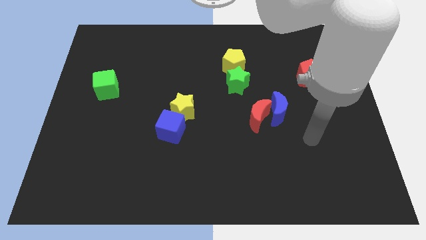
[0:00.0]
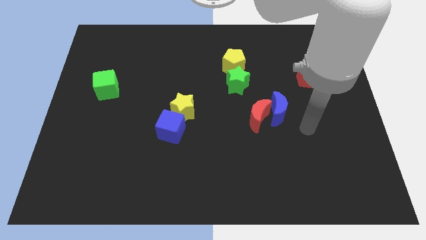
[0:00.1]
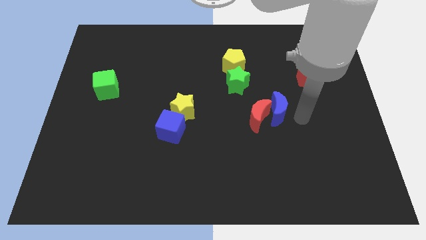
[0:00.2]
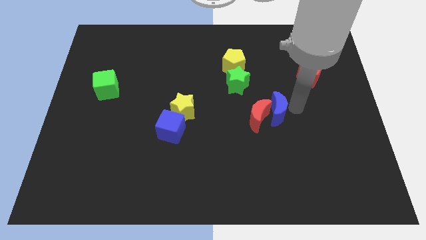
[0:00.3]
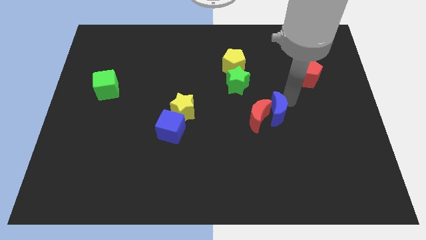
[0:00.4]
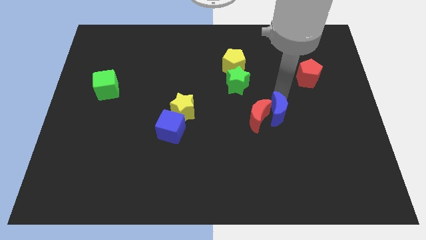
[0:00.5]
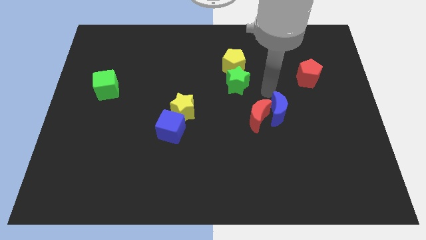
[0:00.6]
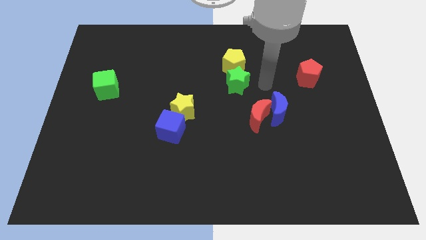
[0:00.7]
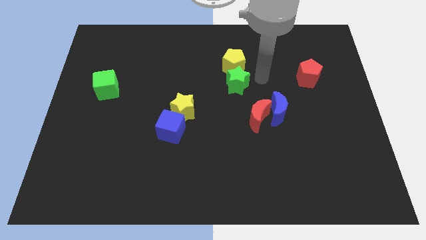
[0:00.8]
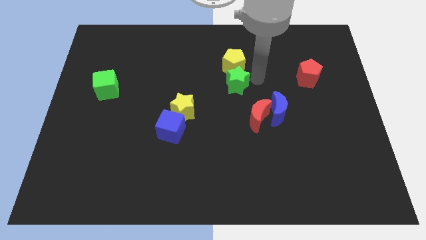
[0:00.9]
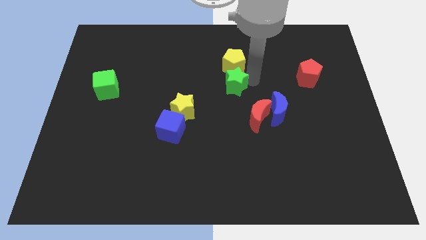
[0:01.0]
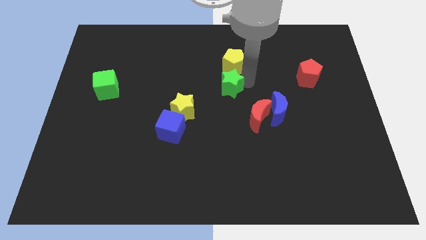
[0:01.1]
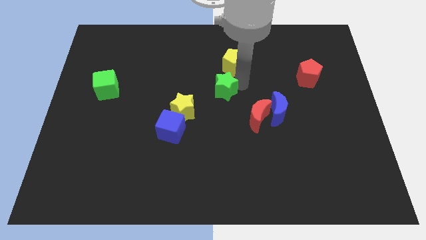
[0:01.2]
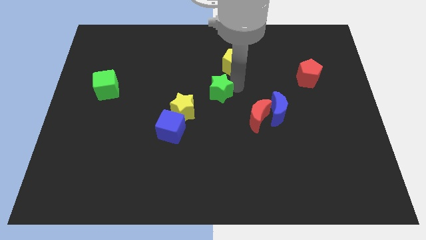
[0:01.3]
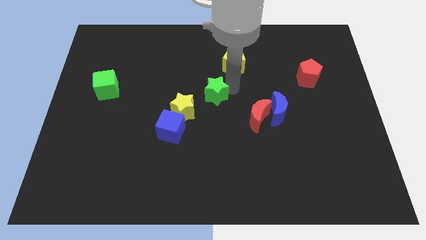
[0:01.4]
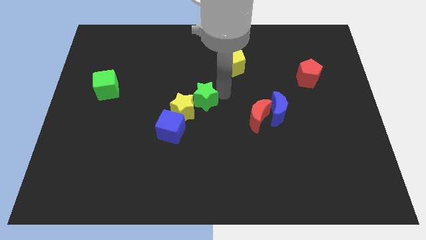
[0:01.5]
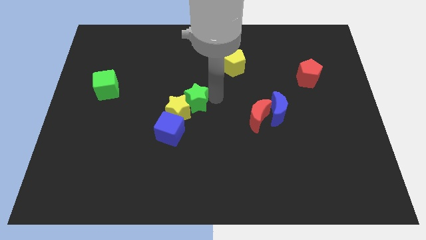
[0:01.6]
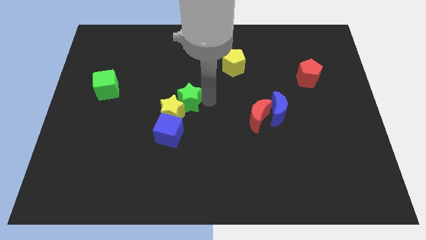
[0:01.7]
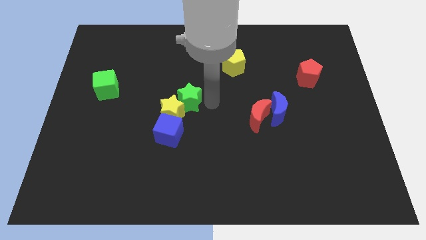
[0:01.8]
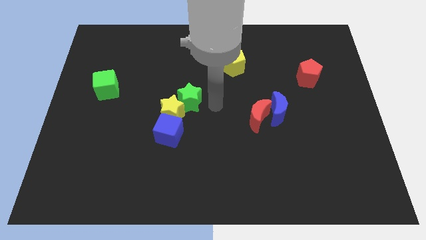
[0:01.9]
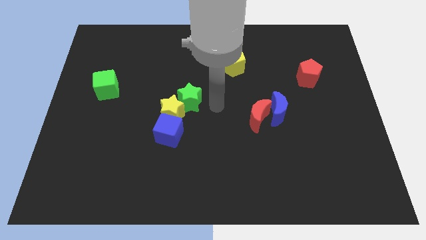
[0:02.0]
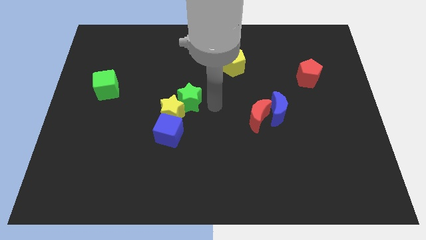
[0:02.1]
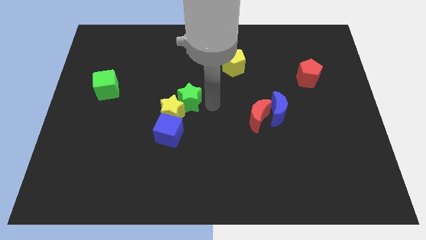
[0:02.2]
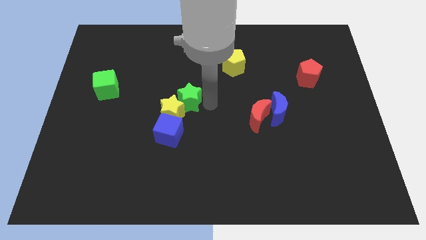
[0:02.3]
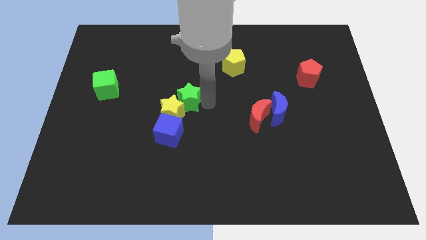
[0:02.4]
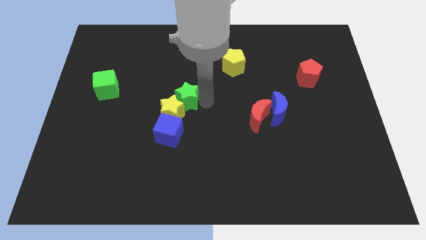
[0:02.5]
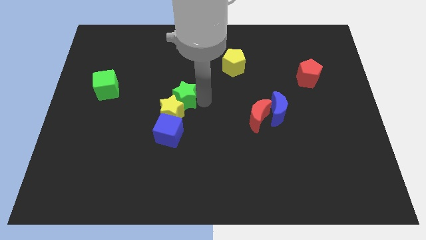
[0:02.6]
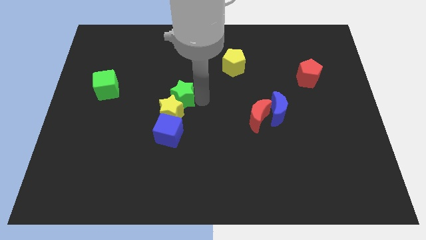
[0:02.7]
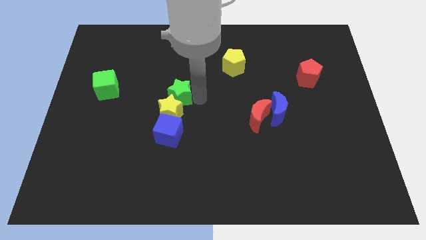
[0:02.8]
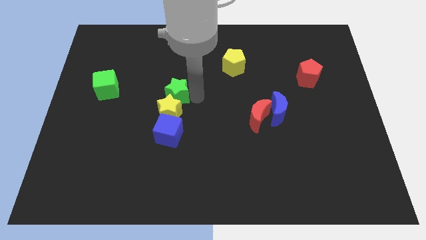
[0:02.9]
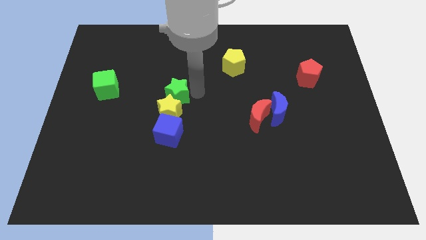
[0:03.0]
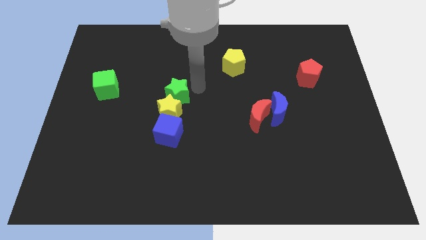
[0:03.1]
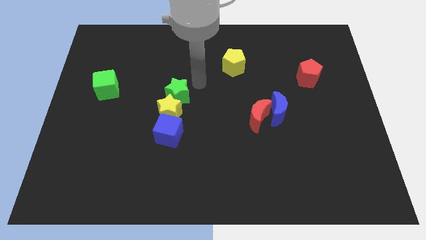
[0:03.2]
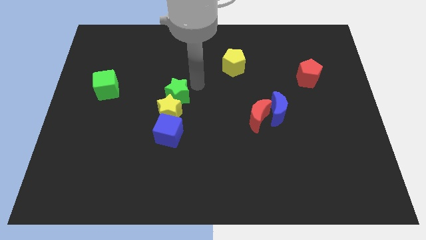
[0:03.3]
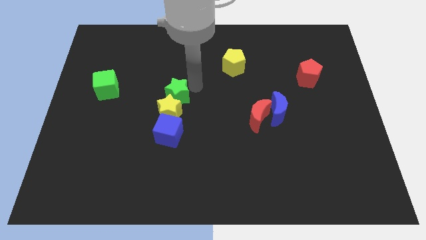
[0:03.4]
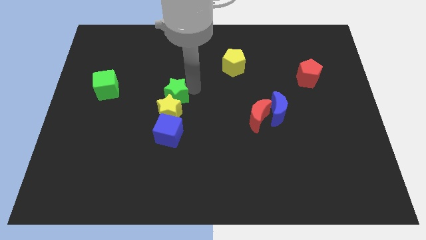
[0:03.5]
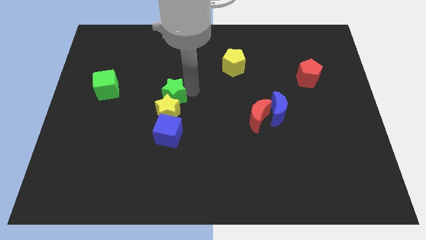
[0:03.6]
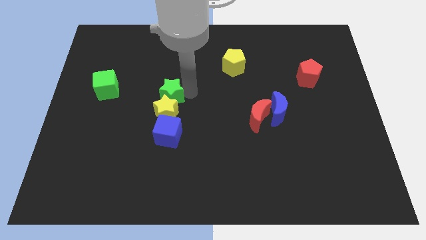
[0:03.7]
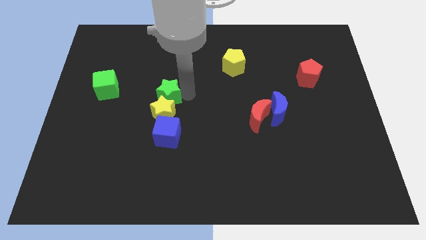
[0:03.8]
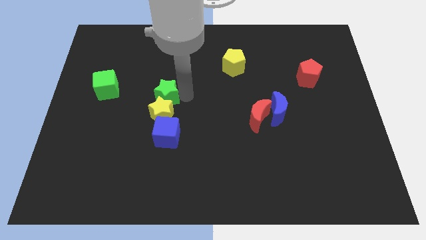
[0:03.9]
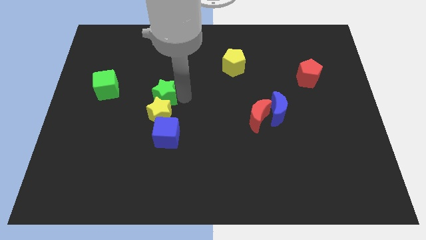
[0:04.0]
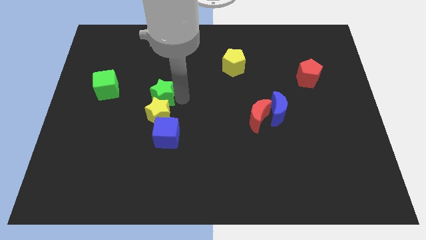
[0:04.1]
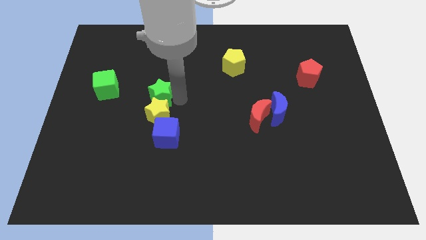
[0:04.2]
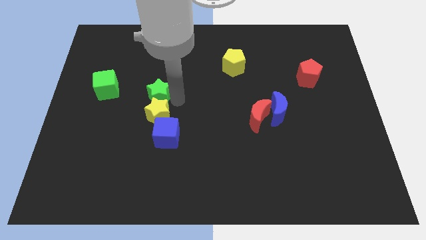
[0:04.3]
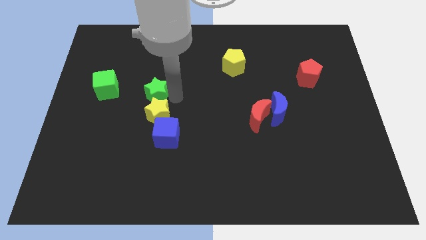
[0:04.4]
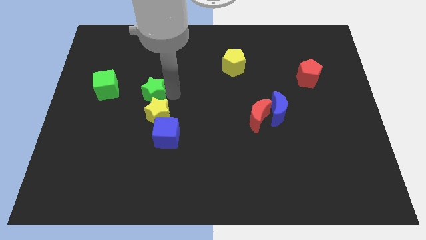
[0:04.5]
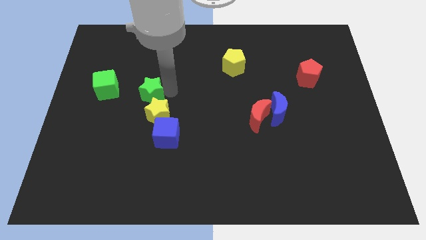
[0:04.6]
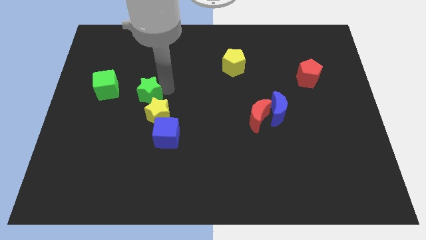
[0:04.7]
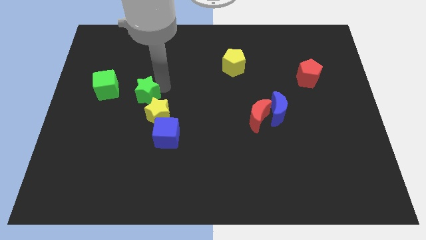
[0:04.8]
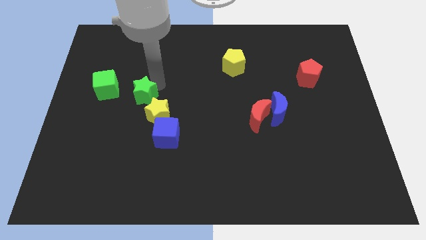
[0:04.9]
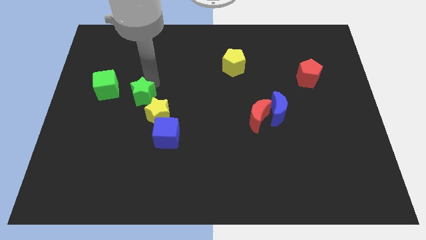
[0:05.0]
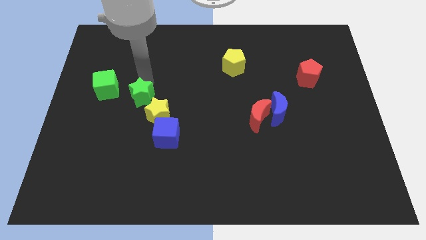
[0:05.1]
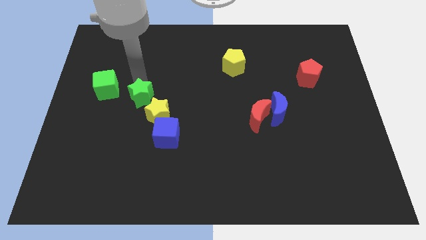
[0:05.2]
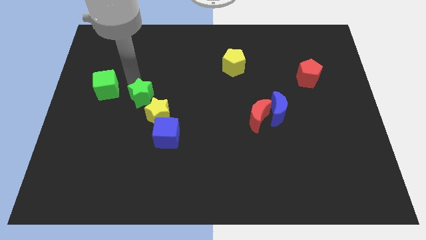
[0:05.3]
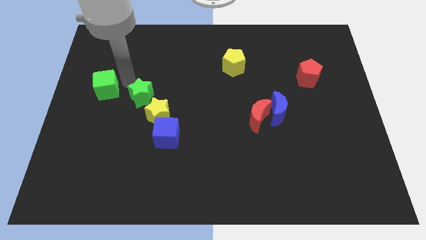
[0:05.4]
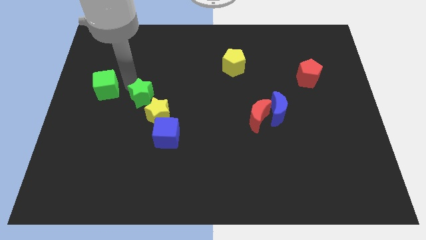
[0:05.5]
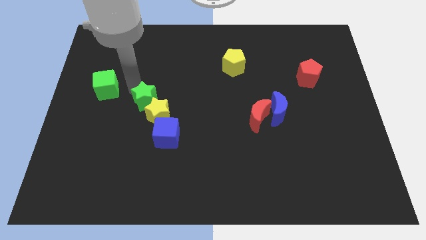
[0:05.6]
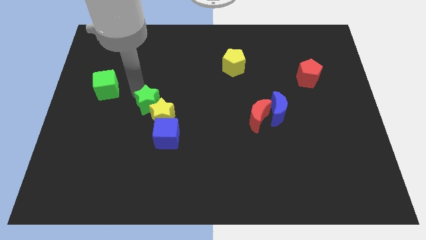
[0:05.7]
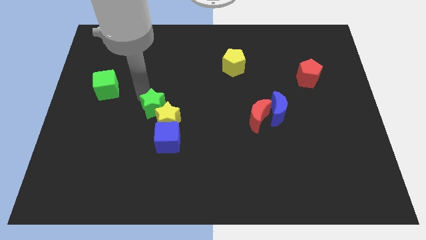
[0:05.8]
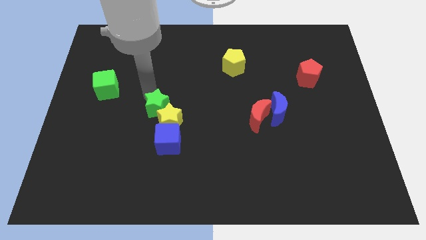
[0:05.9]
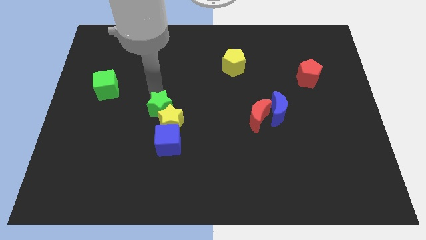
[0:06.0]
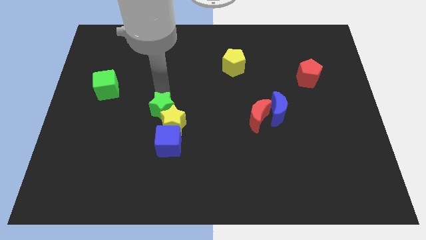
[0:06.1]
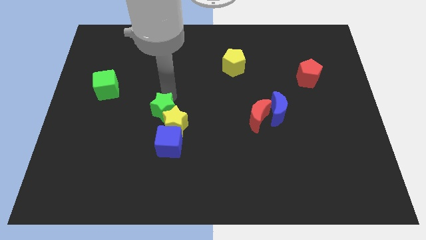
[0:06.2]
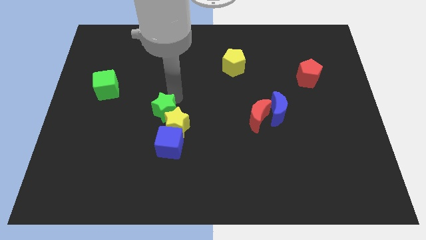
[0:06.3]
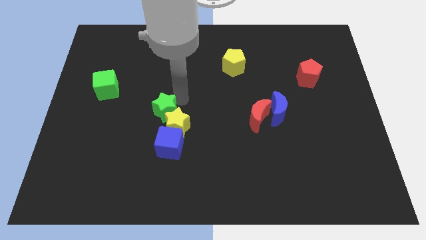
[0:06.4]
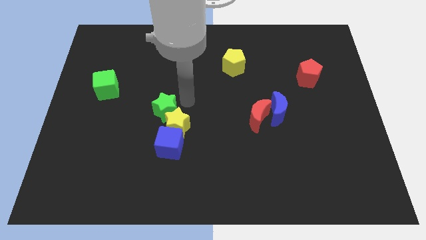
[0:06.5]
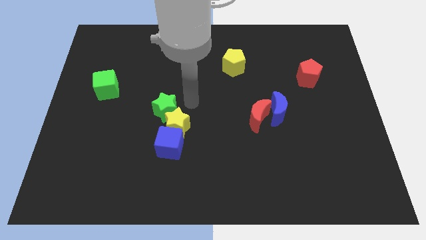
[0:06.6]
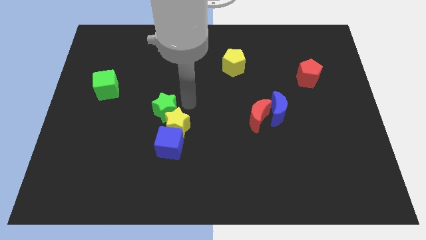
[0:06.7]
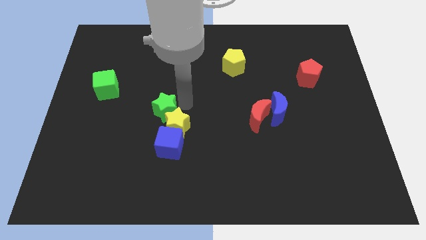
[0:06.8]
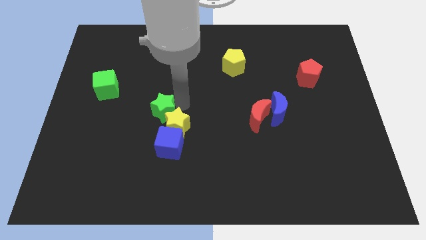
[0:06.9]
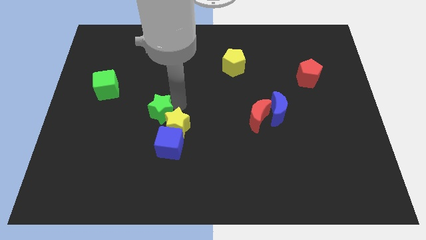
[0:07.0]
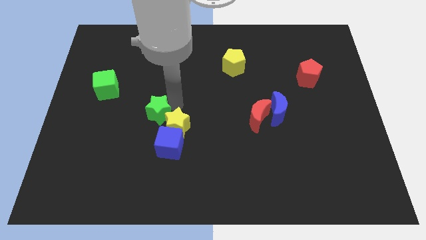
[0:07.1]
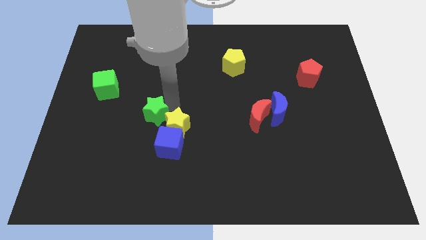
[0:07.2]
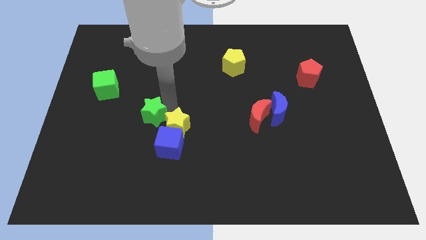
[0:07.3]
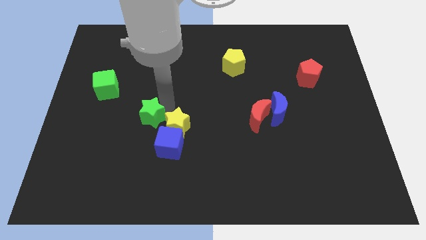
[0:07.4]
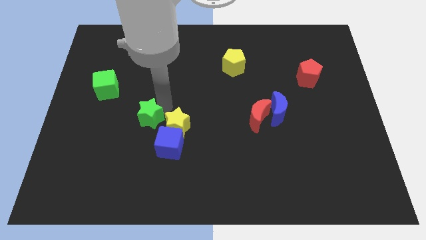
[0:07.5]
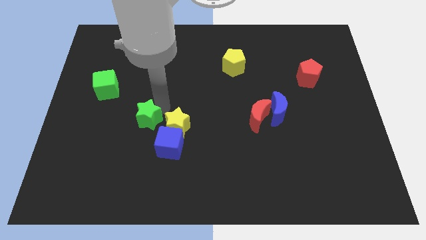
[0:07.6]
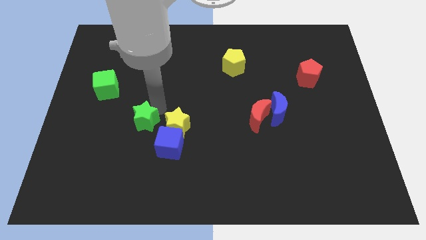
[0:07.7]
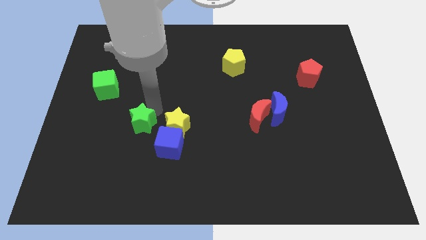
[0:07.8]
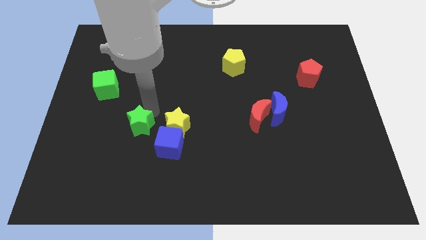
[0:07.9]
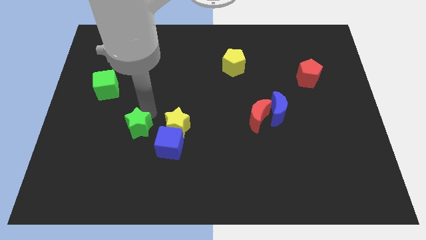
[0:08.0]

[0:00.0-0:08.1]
slide the green star left of the blue cube
